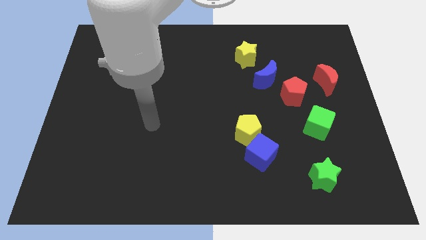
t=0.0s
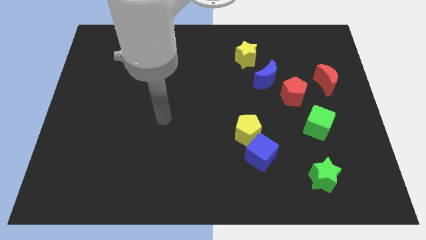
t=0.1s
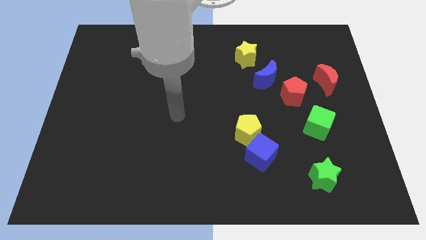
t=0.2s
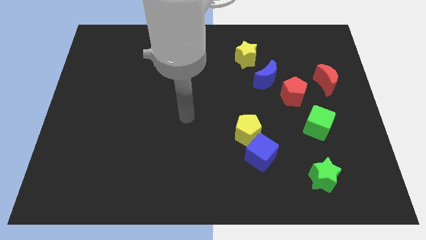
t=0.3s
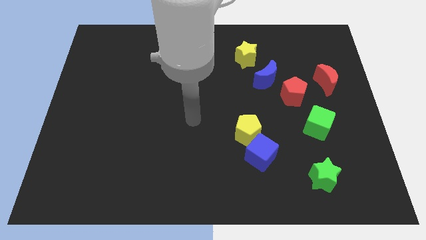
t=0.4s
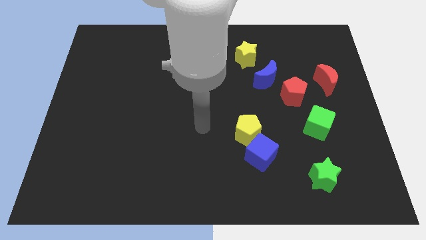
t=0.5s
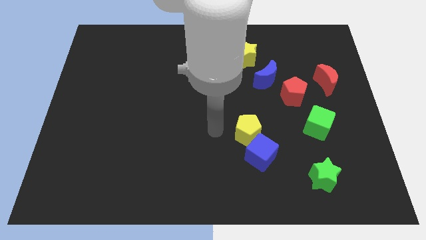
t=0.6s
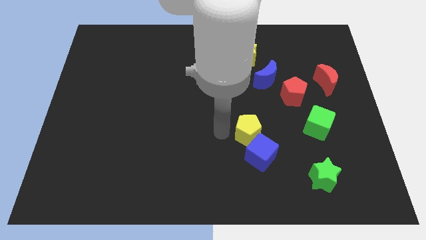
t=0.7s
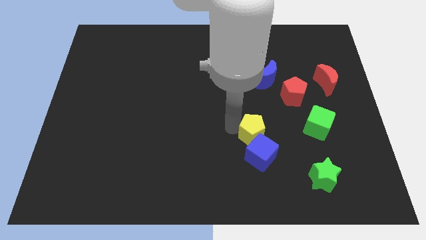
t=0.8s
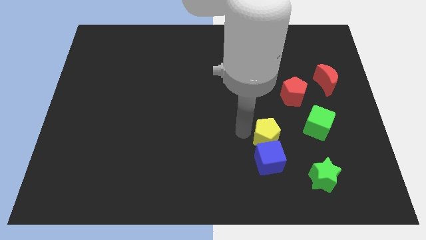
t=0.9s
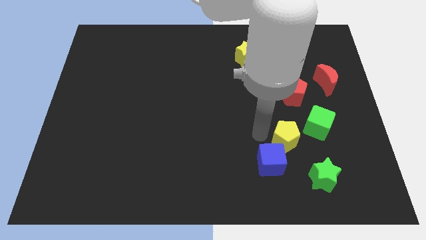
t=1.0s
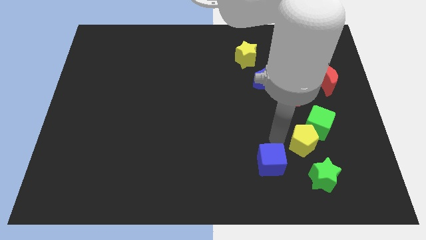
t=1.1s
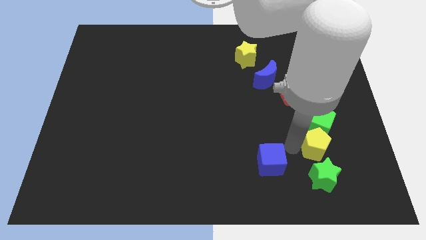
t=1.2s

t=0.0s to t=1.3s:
separate the blue cube from the yellow pentagon

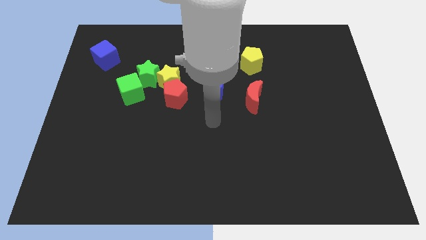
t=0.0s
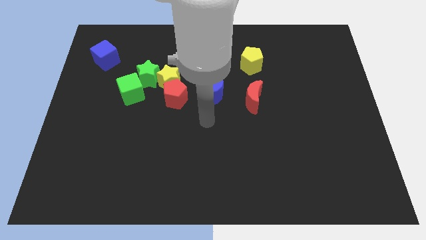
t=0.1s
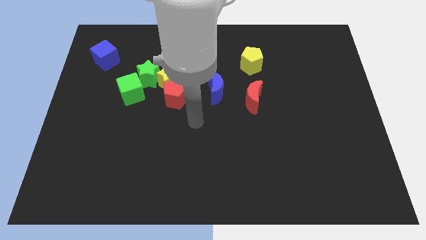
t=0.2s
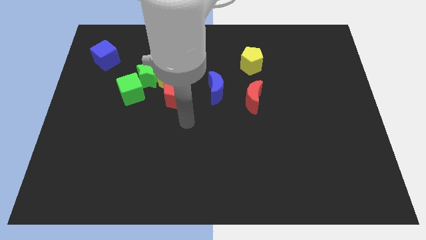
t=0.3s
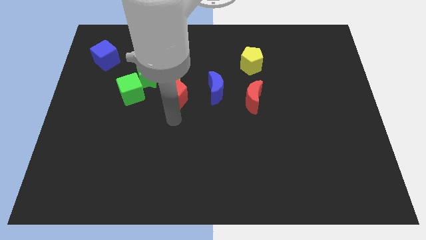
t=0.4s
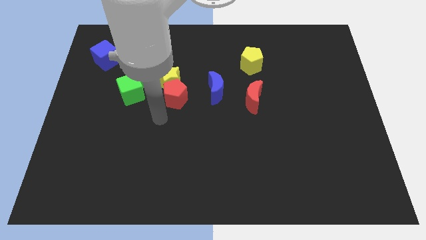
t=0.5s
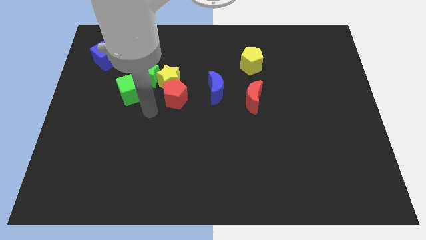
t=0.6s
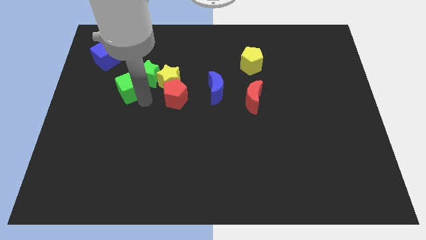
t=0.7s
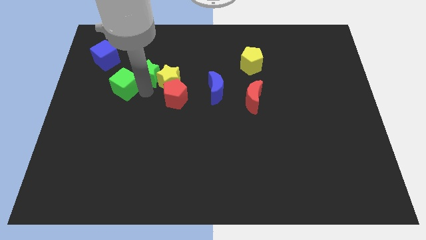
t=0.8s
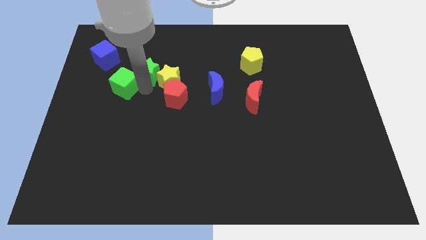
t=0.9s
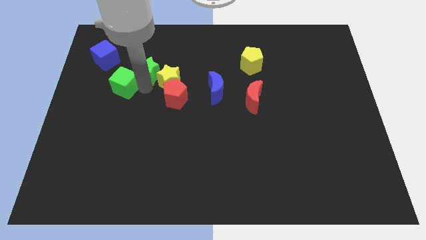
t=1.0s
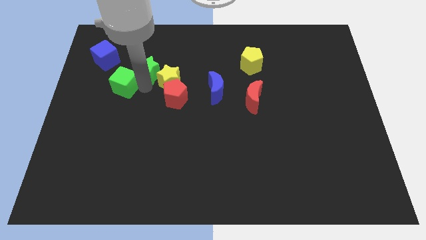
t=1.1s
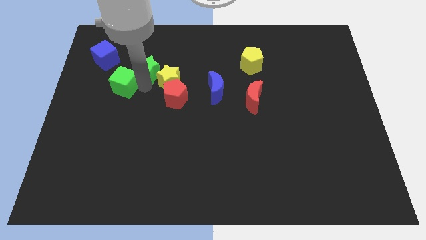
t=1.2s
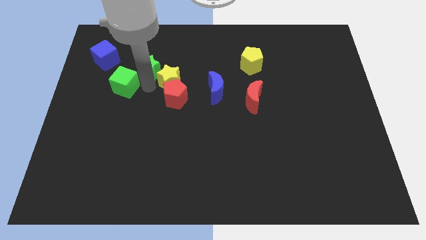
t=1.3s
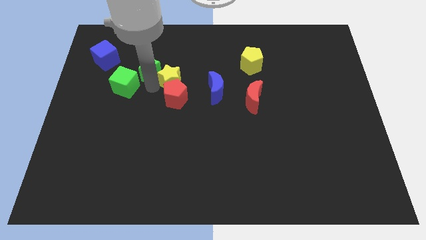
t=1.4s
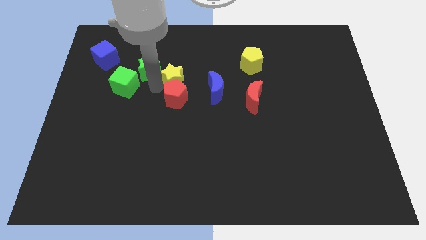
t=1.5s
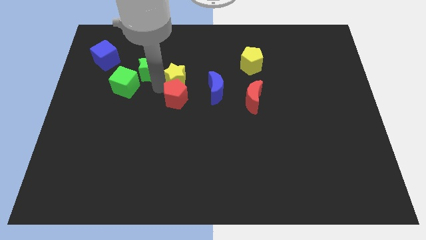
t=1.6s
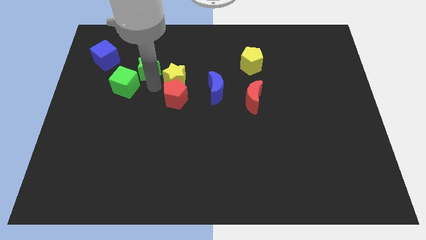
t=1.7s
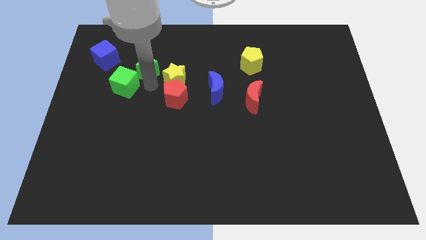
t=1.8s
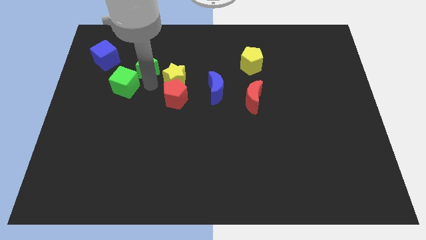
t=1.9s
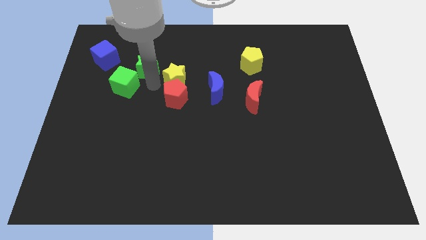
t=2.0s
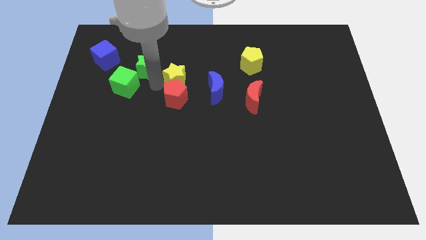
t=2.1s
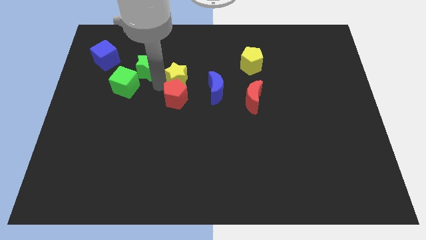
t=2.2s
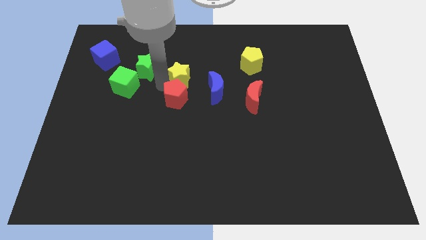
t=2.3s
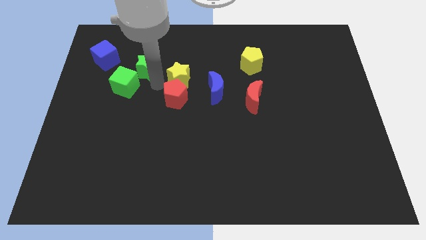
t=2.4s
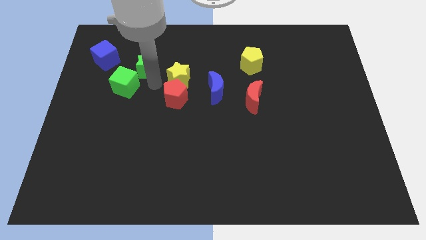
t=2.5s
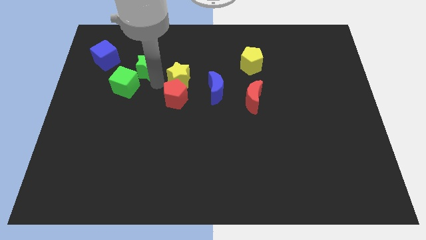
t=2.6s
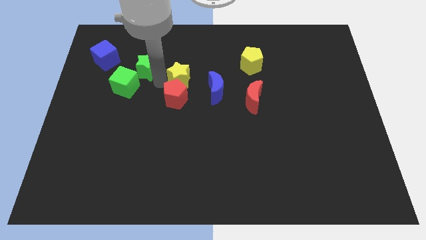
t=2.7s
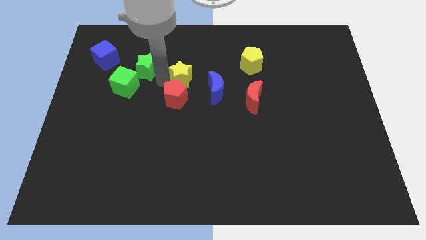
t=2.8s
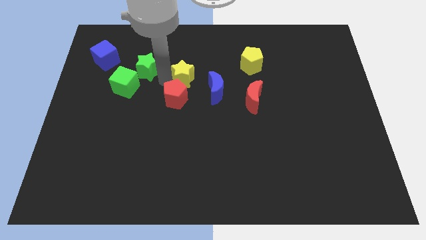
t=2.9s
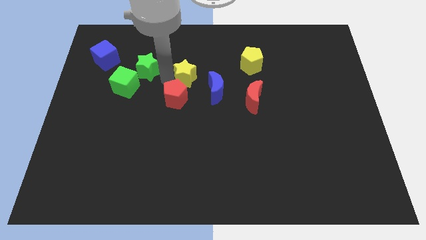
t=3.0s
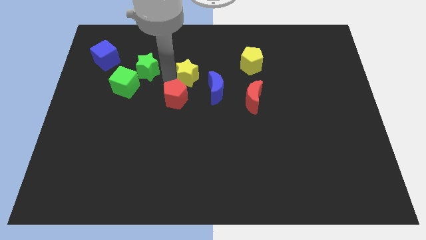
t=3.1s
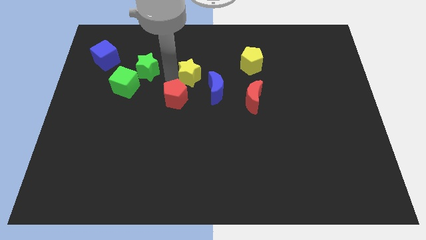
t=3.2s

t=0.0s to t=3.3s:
move the yellow star away from the group

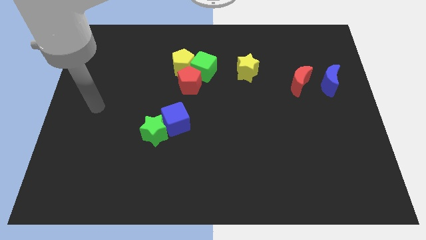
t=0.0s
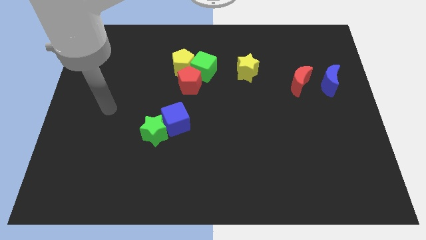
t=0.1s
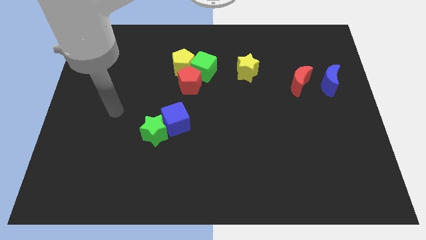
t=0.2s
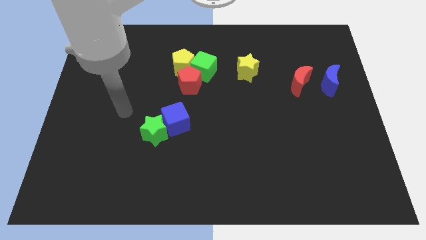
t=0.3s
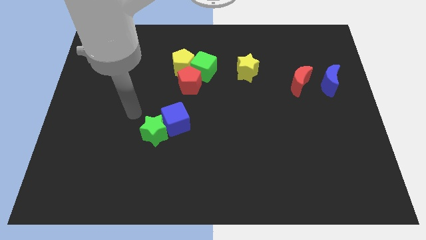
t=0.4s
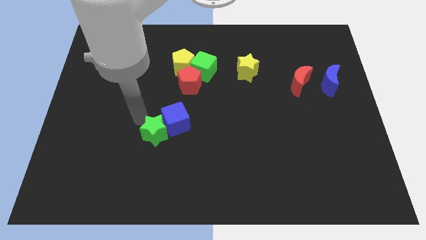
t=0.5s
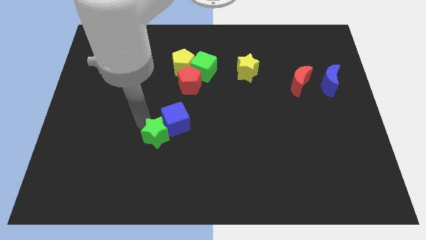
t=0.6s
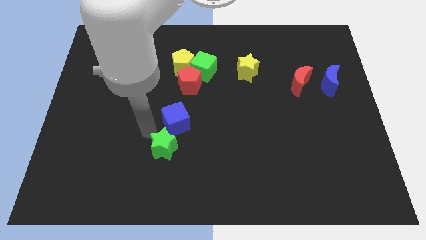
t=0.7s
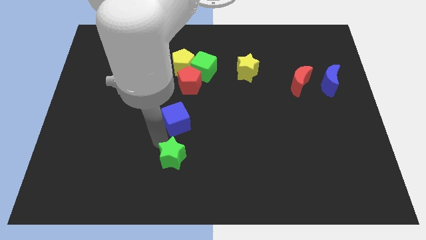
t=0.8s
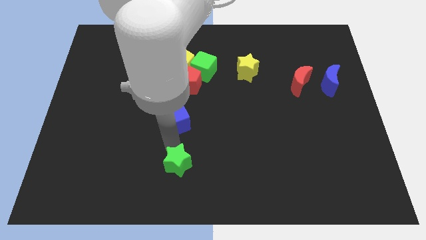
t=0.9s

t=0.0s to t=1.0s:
pull the blue cube apart from the green star

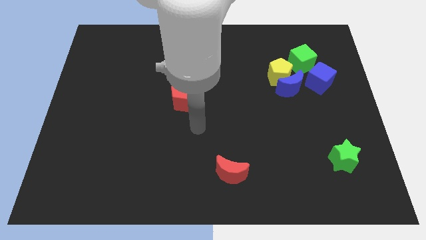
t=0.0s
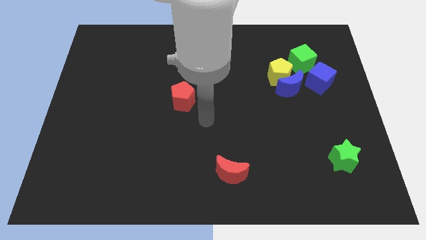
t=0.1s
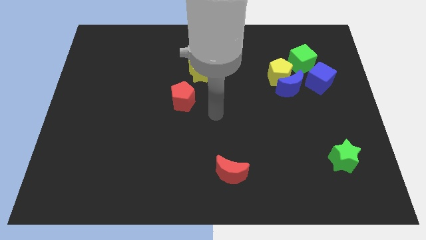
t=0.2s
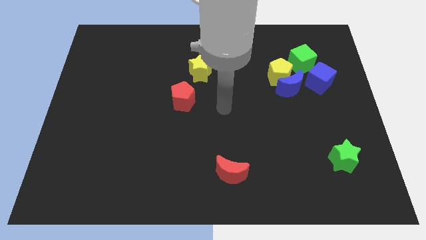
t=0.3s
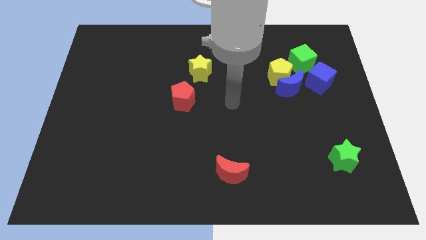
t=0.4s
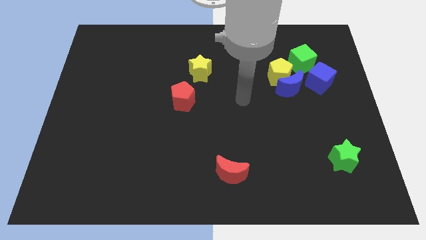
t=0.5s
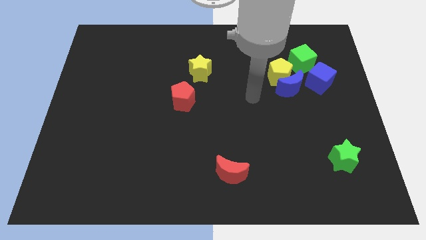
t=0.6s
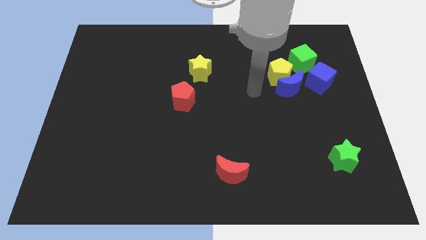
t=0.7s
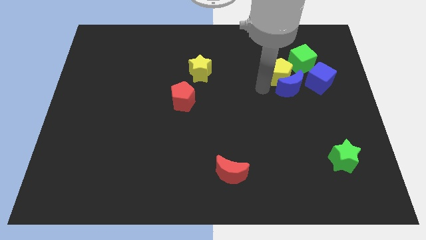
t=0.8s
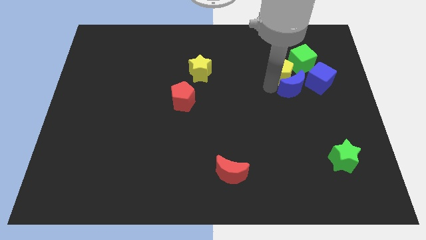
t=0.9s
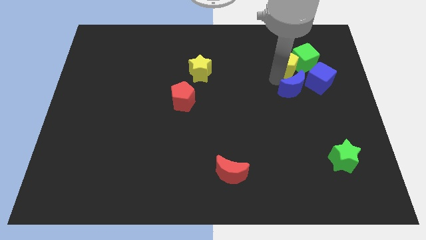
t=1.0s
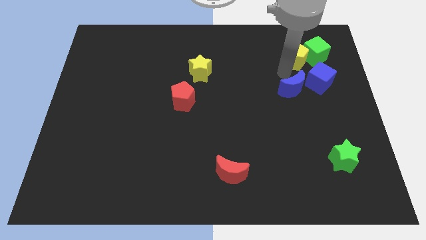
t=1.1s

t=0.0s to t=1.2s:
separate the blue moon from the yellow pentagon, blue cube, and green cube

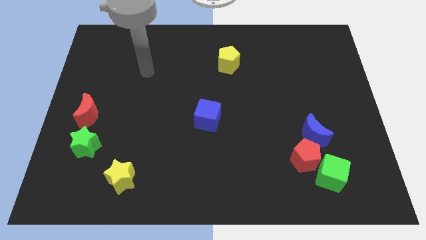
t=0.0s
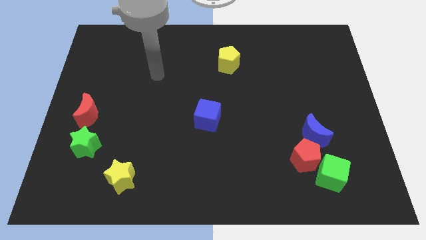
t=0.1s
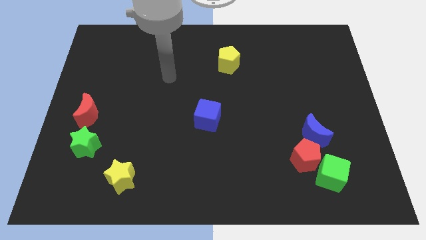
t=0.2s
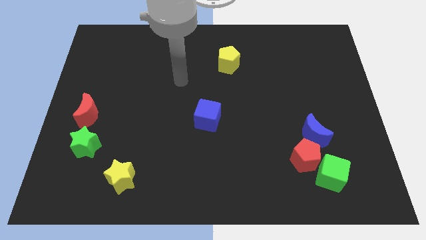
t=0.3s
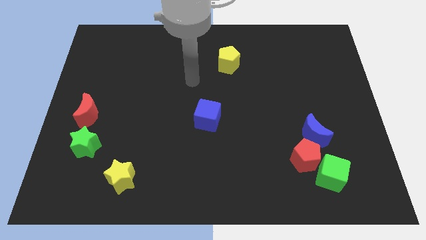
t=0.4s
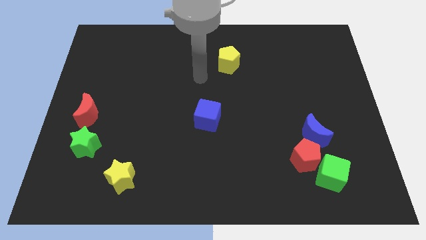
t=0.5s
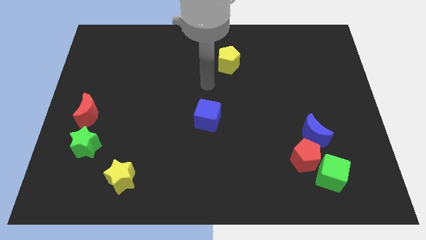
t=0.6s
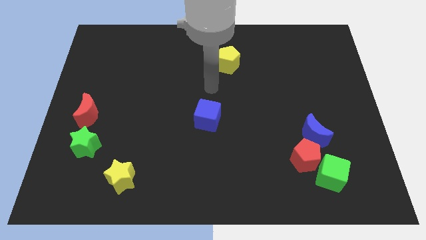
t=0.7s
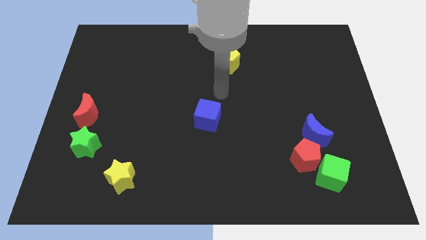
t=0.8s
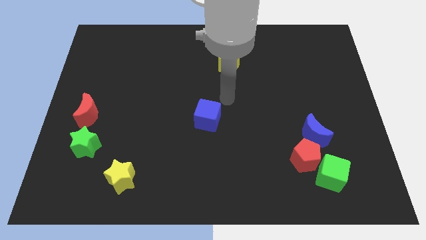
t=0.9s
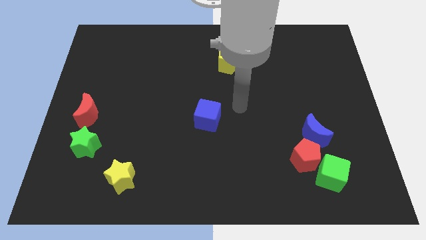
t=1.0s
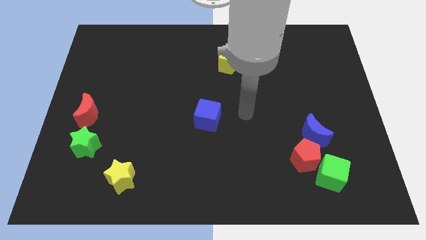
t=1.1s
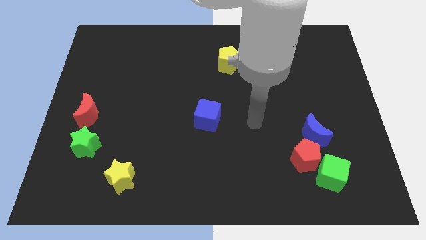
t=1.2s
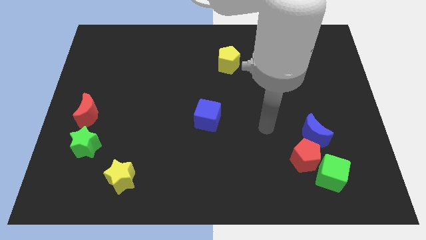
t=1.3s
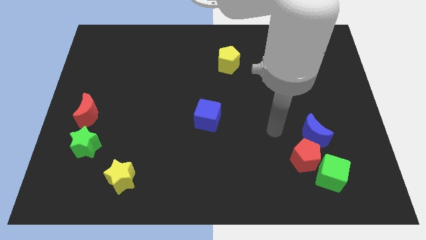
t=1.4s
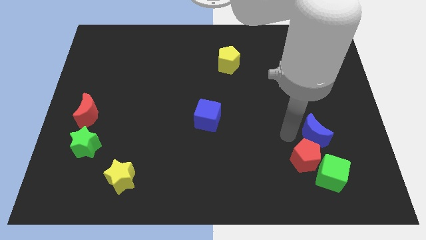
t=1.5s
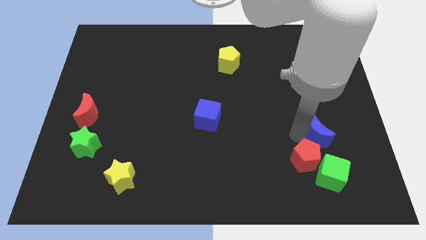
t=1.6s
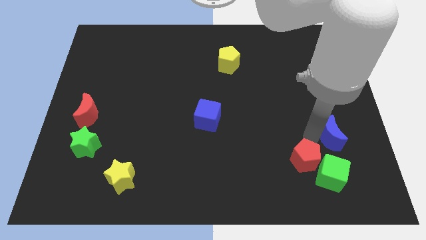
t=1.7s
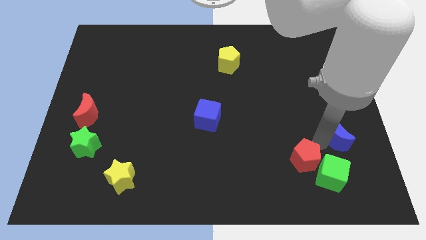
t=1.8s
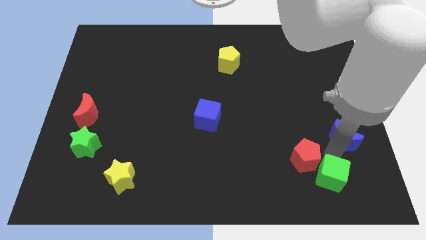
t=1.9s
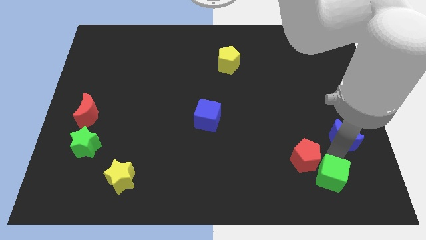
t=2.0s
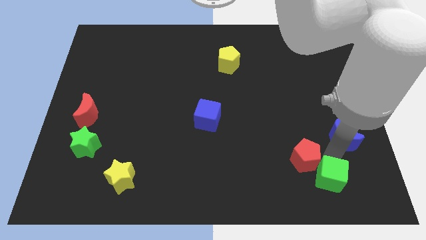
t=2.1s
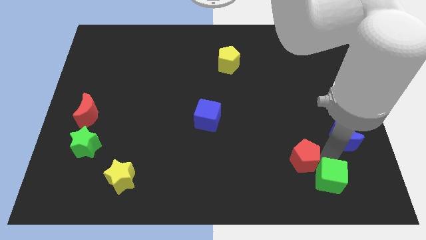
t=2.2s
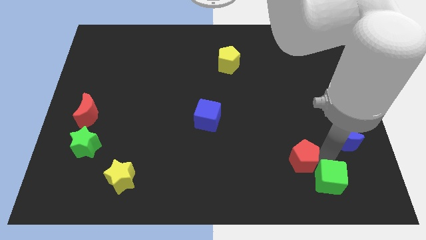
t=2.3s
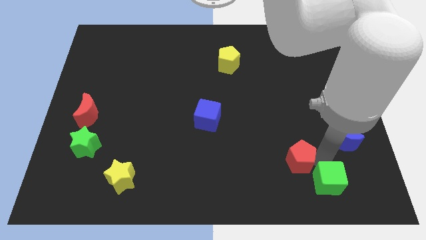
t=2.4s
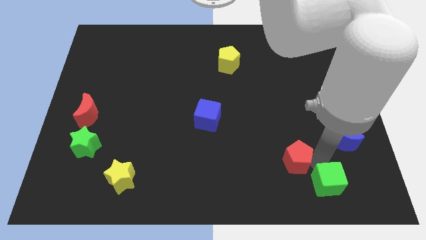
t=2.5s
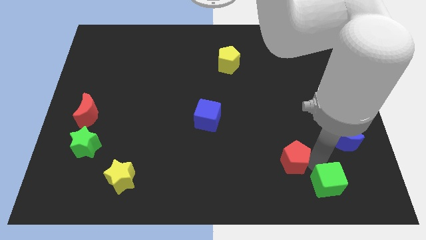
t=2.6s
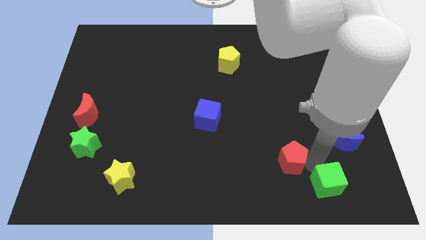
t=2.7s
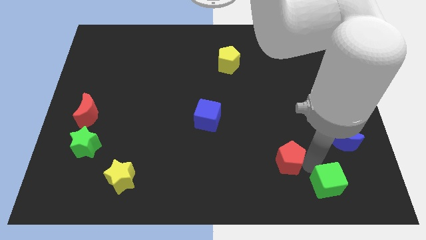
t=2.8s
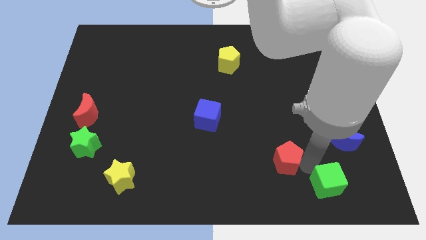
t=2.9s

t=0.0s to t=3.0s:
pull the red pentagon apart from the green cube and blue moon
